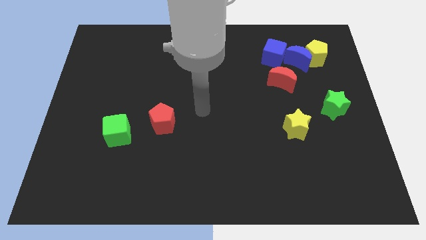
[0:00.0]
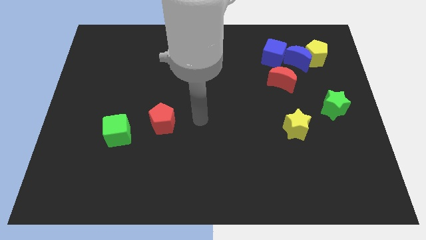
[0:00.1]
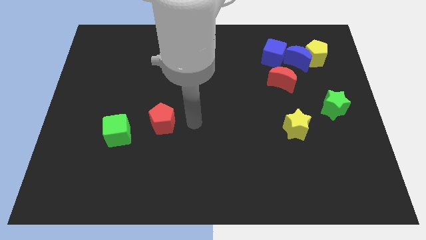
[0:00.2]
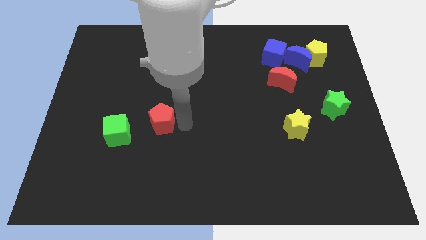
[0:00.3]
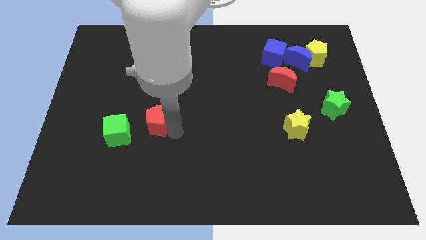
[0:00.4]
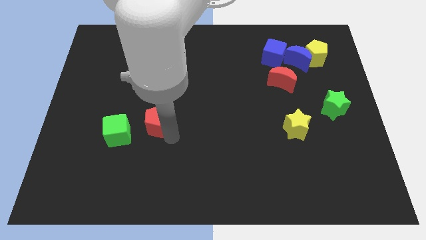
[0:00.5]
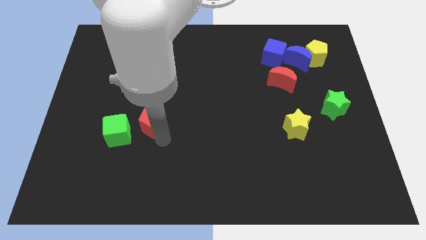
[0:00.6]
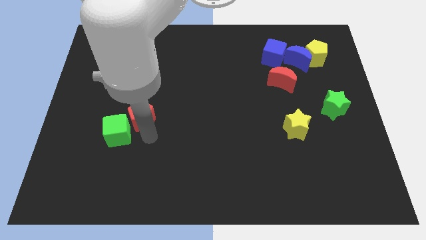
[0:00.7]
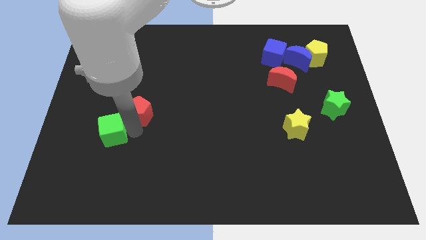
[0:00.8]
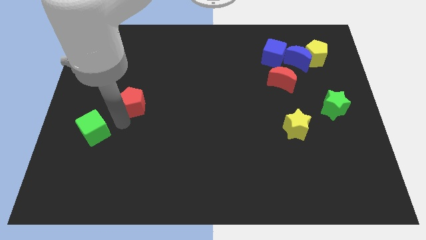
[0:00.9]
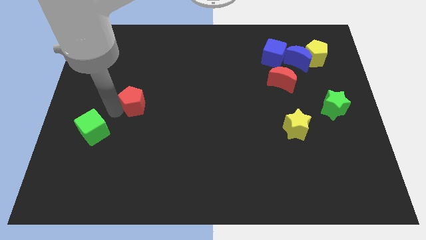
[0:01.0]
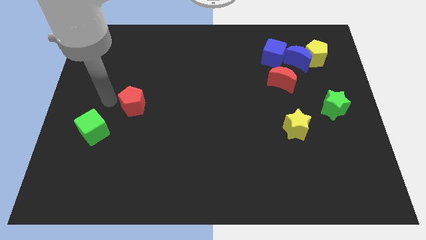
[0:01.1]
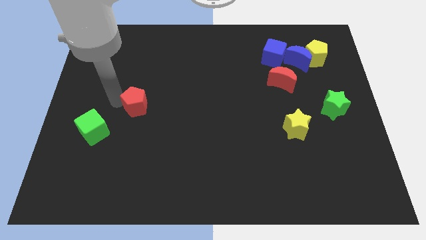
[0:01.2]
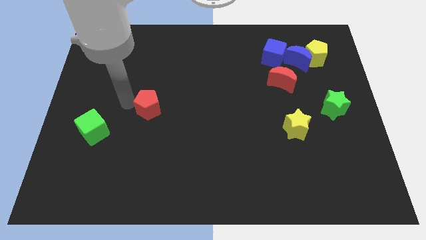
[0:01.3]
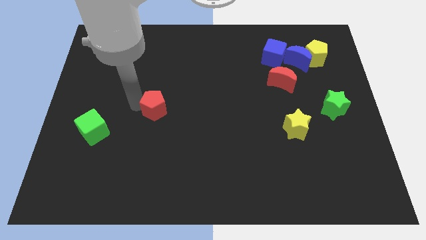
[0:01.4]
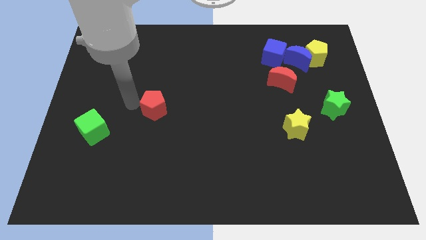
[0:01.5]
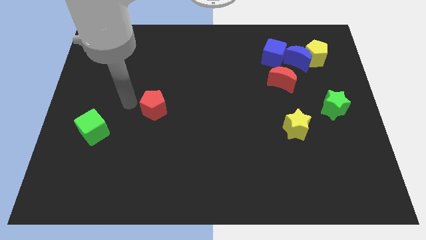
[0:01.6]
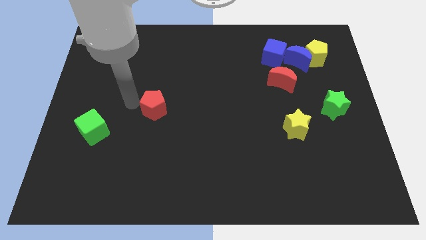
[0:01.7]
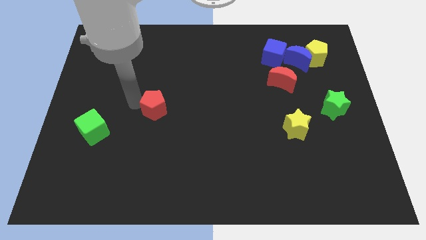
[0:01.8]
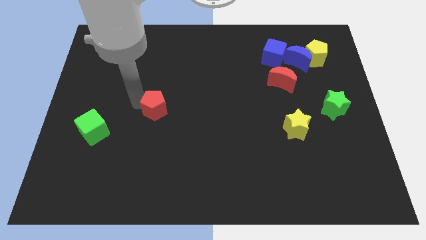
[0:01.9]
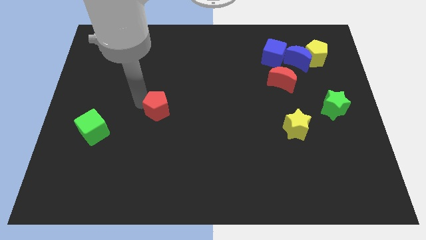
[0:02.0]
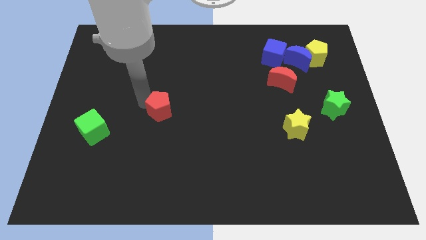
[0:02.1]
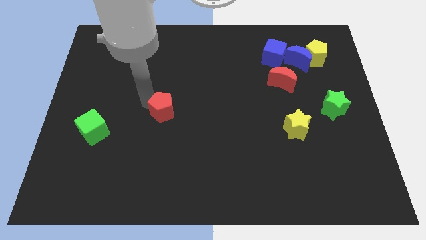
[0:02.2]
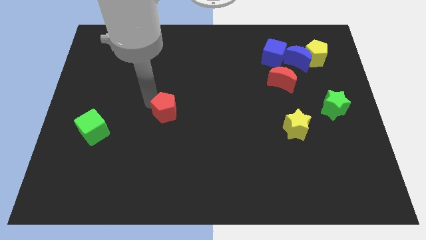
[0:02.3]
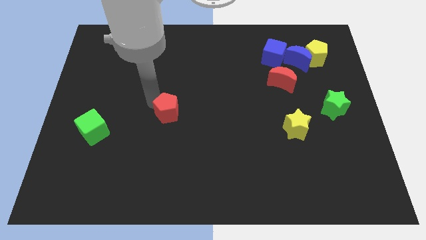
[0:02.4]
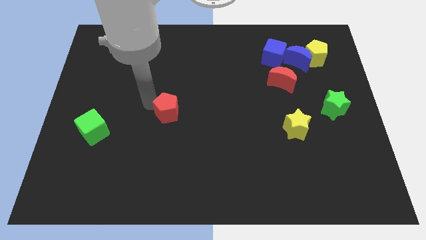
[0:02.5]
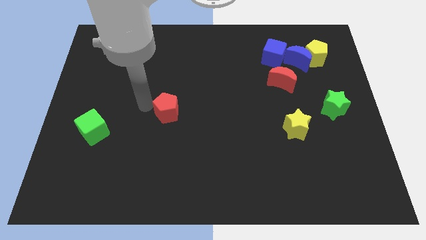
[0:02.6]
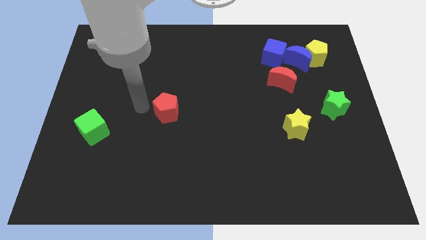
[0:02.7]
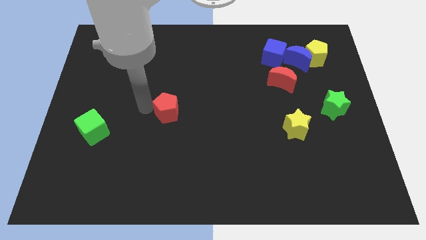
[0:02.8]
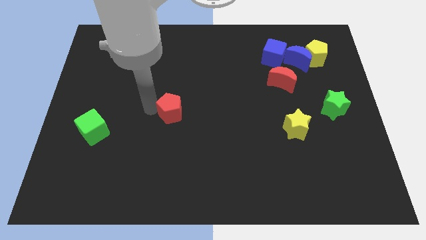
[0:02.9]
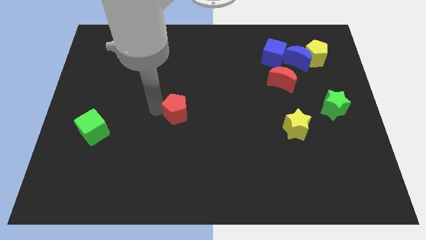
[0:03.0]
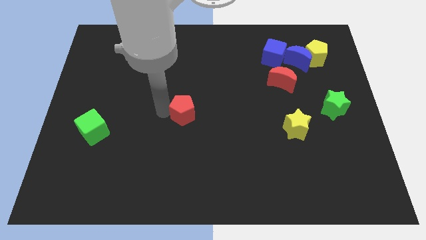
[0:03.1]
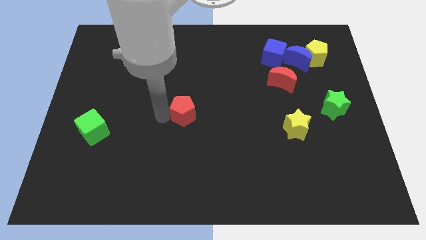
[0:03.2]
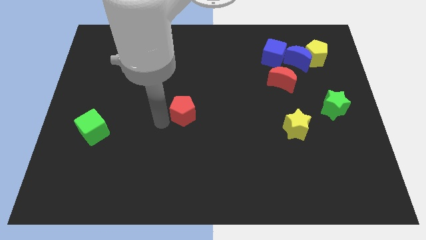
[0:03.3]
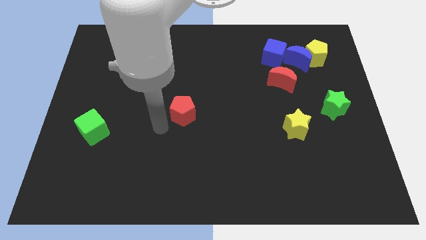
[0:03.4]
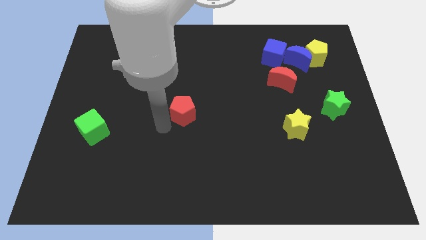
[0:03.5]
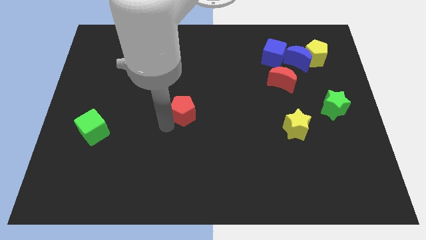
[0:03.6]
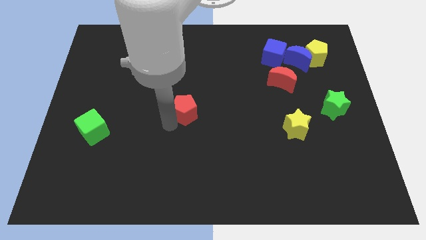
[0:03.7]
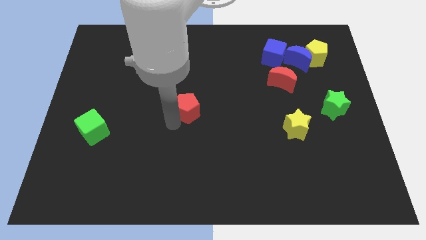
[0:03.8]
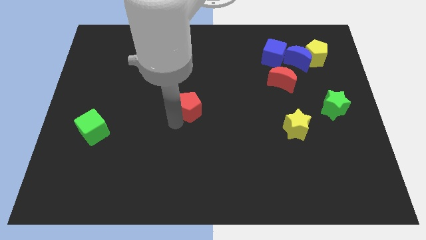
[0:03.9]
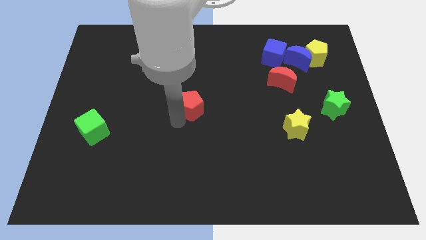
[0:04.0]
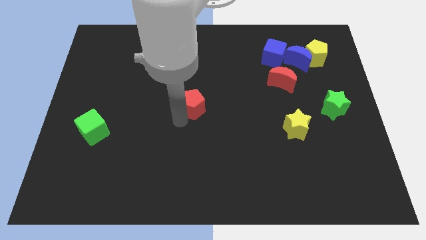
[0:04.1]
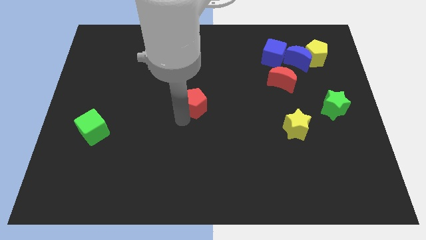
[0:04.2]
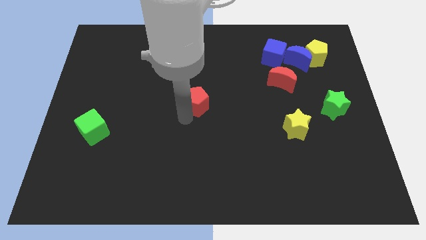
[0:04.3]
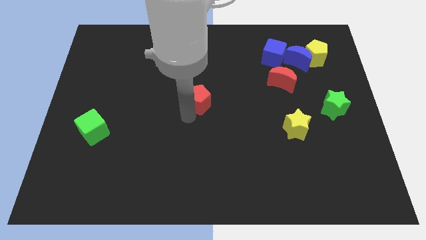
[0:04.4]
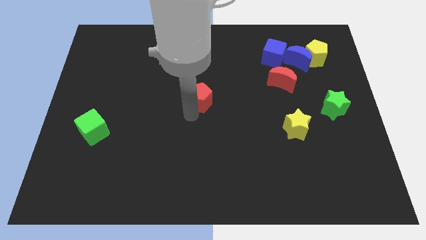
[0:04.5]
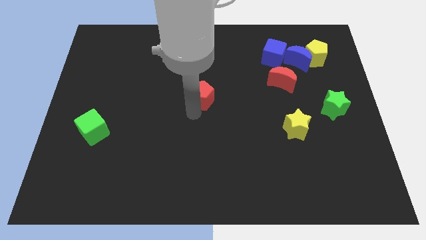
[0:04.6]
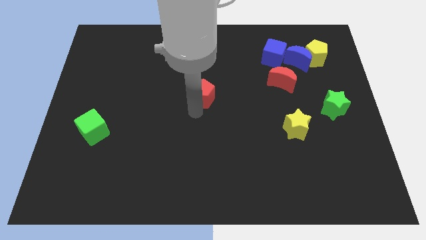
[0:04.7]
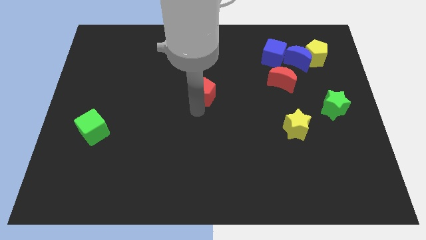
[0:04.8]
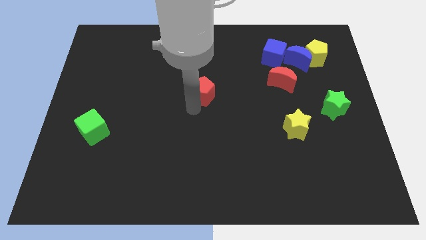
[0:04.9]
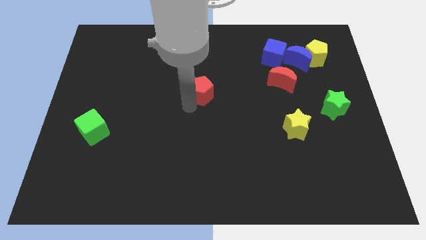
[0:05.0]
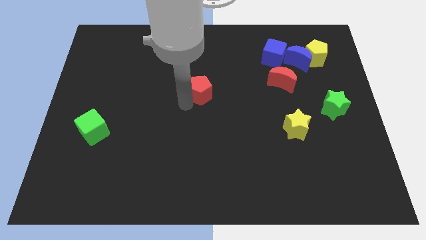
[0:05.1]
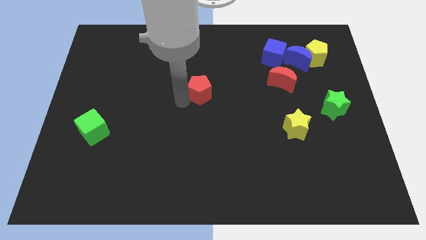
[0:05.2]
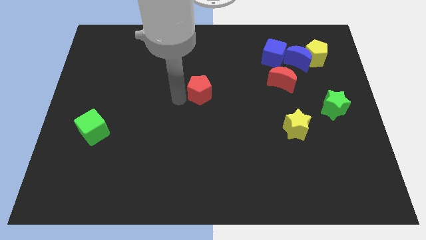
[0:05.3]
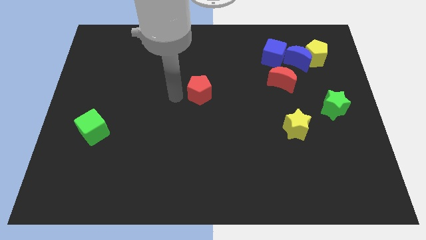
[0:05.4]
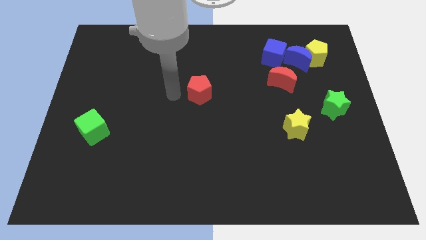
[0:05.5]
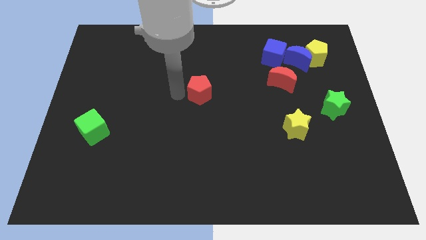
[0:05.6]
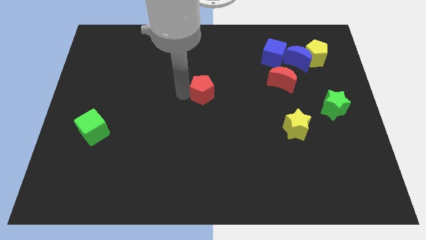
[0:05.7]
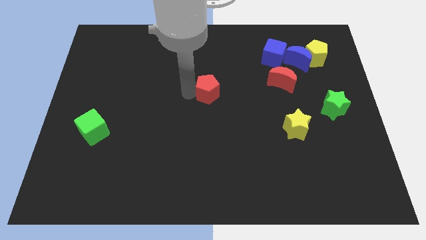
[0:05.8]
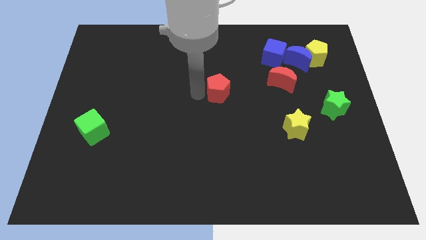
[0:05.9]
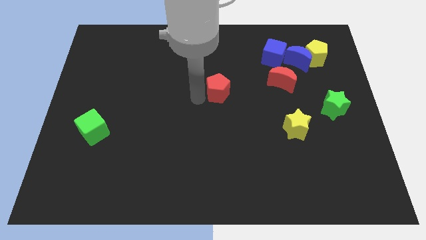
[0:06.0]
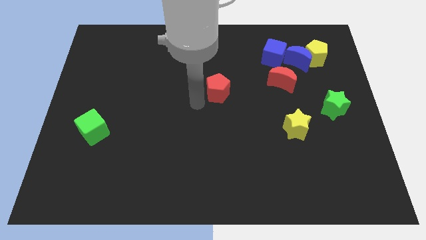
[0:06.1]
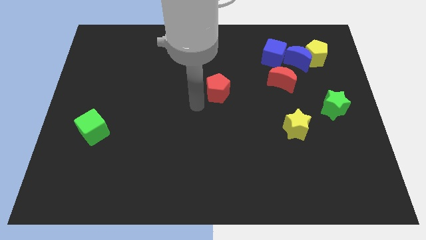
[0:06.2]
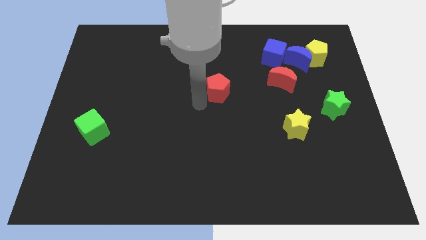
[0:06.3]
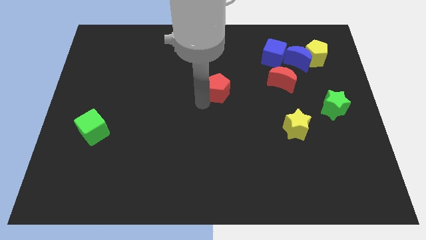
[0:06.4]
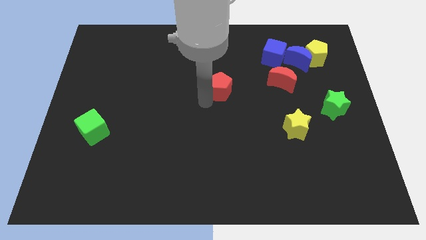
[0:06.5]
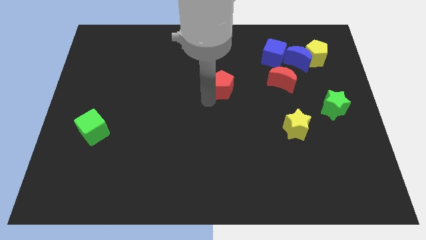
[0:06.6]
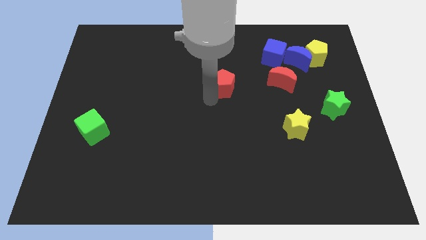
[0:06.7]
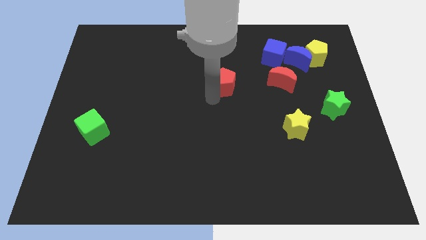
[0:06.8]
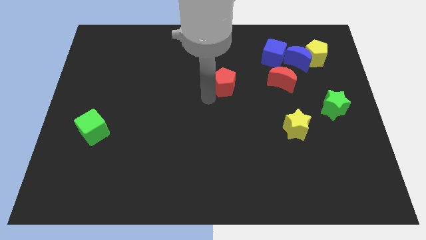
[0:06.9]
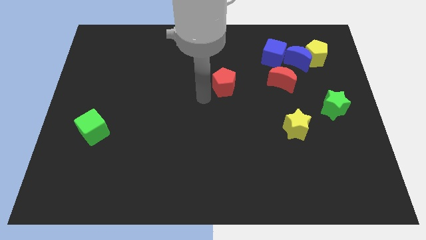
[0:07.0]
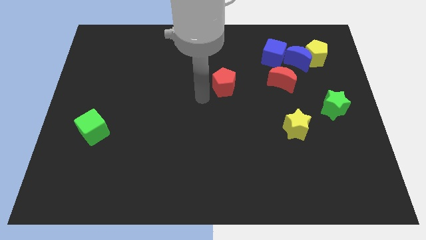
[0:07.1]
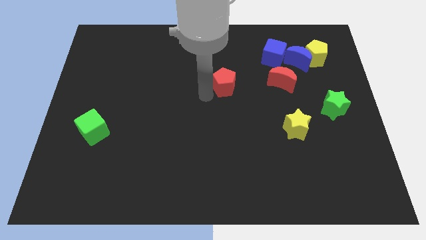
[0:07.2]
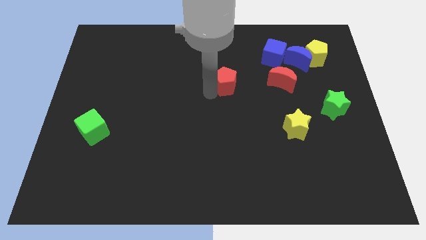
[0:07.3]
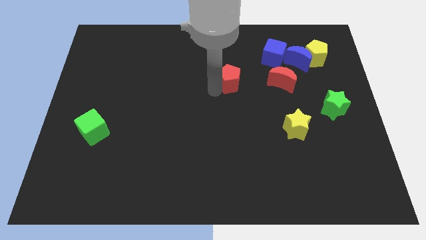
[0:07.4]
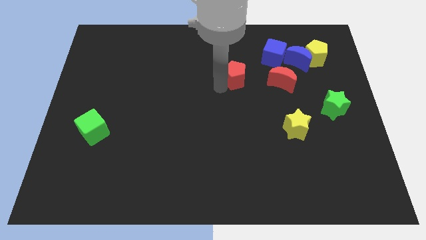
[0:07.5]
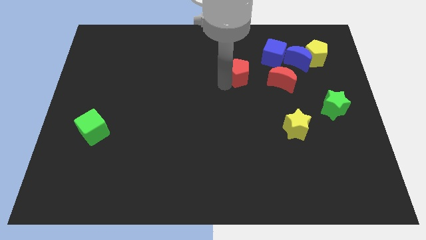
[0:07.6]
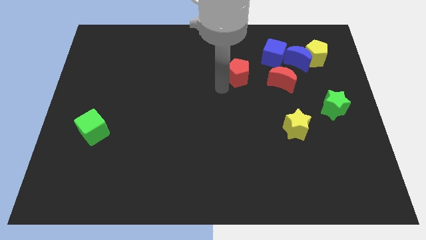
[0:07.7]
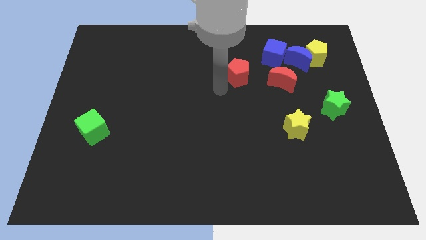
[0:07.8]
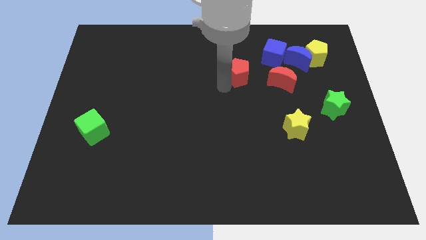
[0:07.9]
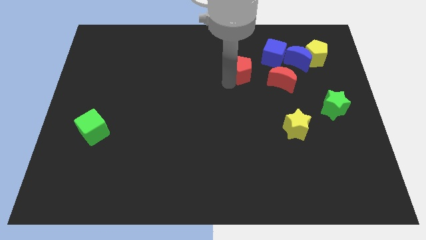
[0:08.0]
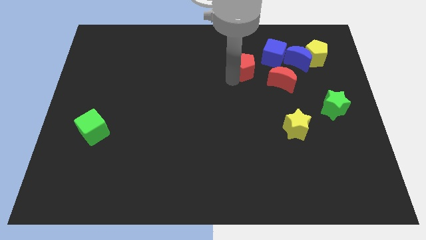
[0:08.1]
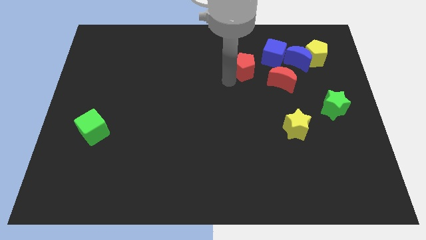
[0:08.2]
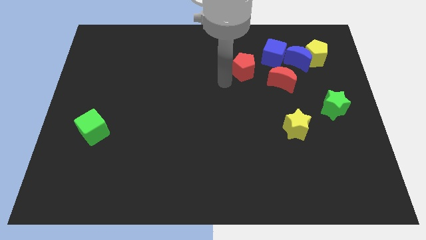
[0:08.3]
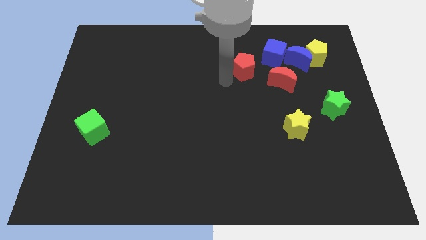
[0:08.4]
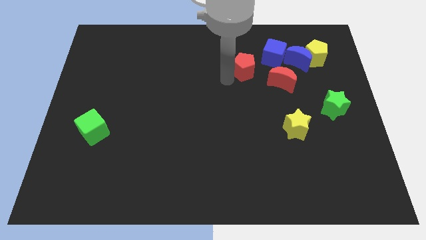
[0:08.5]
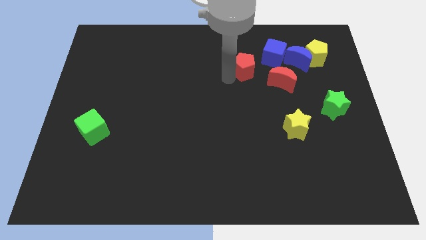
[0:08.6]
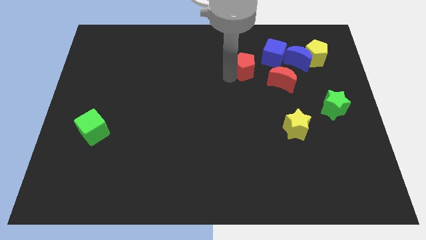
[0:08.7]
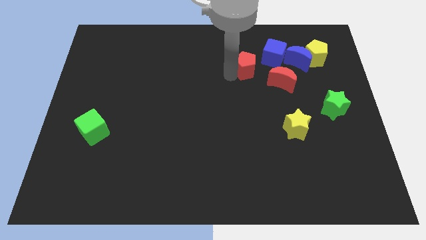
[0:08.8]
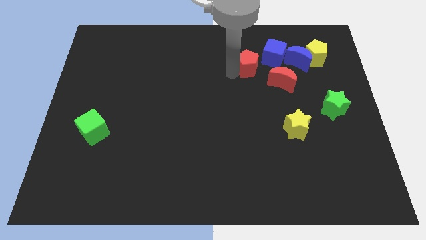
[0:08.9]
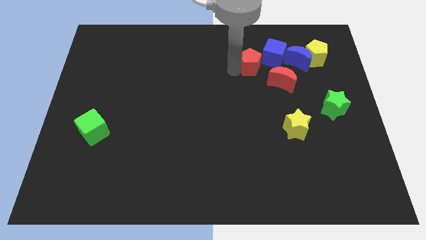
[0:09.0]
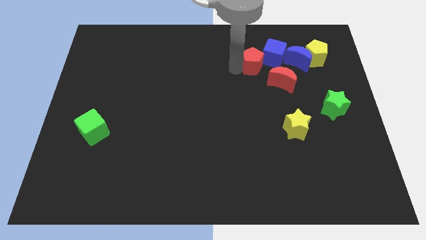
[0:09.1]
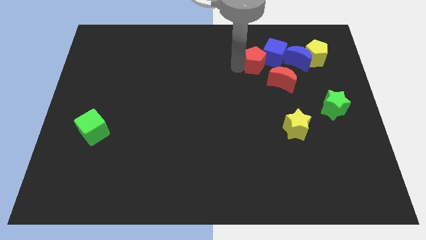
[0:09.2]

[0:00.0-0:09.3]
put the red pentagon towards the blue cube
